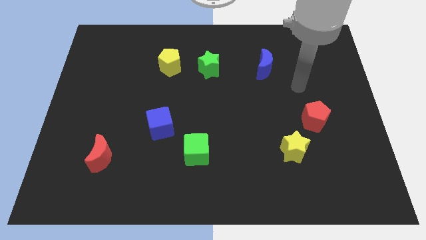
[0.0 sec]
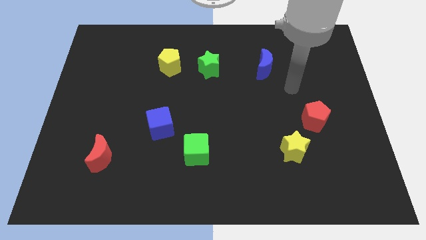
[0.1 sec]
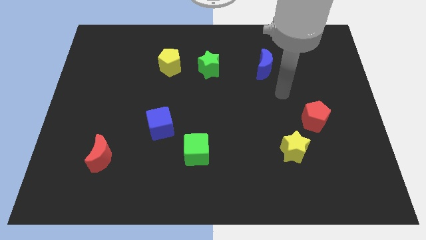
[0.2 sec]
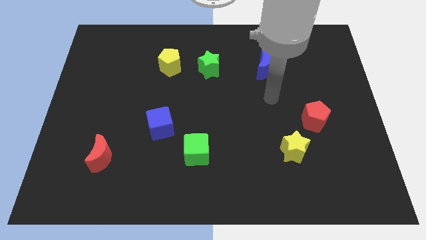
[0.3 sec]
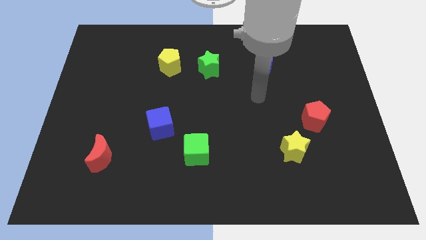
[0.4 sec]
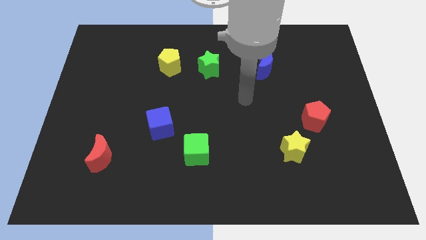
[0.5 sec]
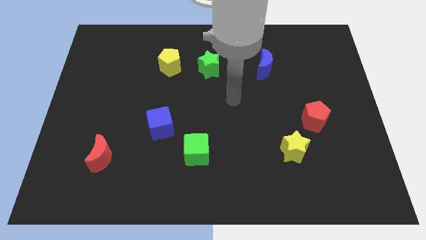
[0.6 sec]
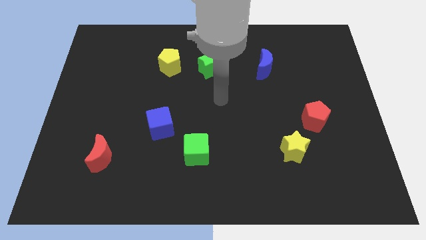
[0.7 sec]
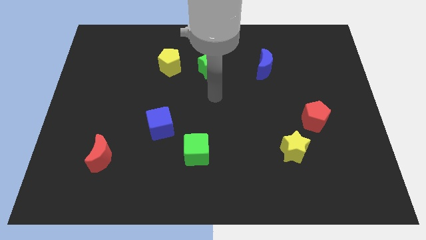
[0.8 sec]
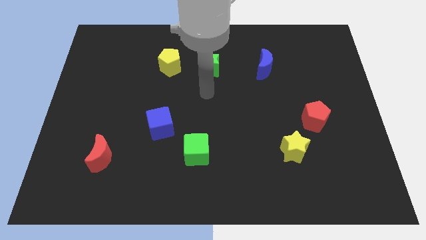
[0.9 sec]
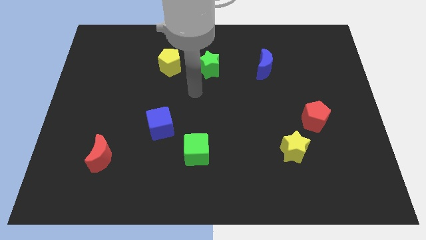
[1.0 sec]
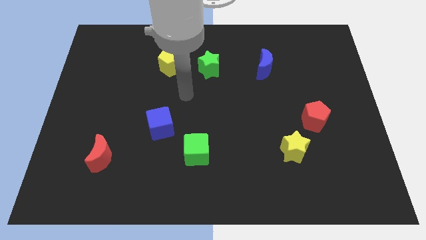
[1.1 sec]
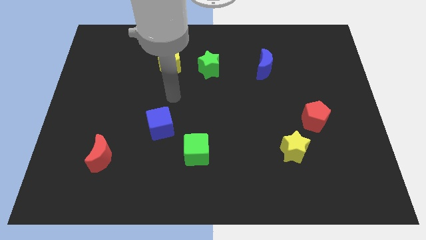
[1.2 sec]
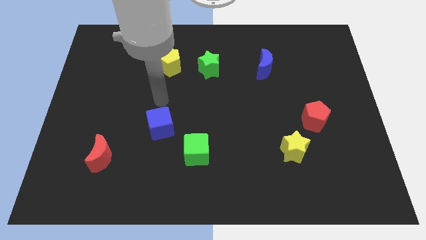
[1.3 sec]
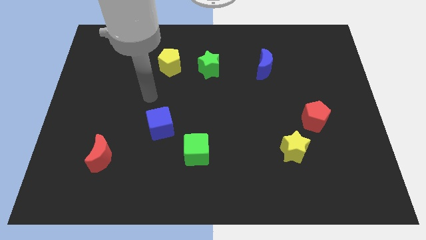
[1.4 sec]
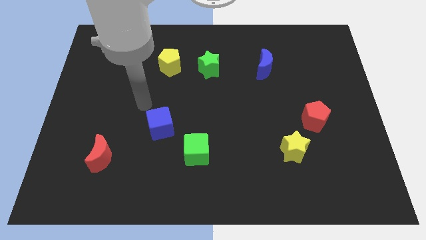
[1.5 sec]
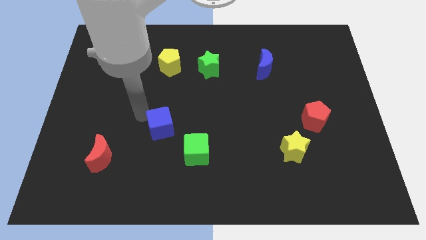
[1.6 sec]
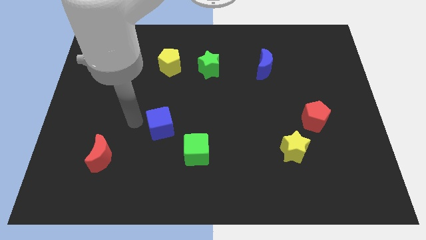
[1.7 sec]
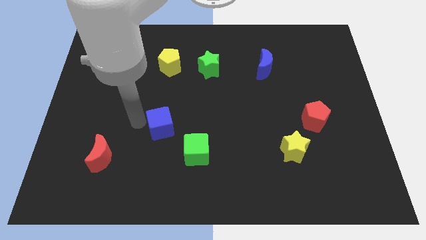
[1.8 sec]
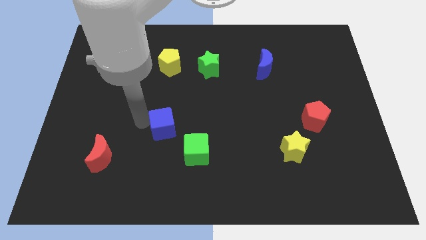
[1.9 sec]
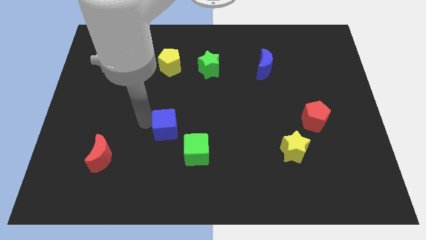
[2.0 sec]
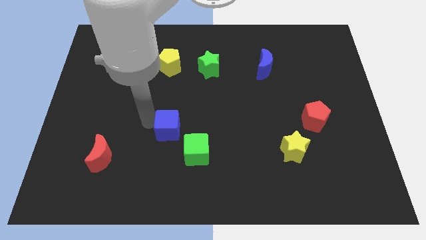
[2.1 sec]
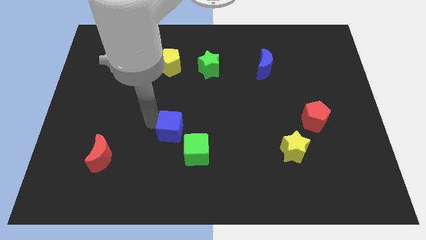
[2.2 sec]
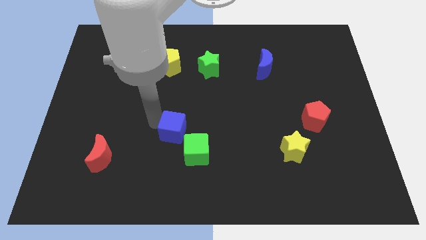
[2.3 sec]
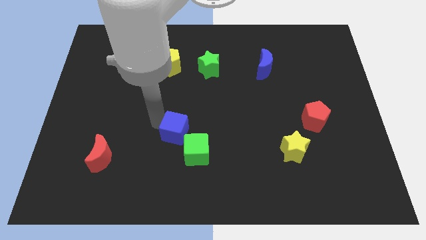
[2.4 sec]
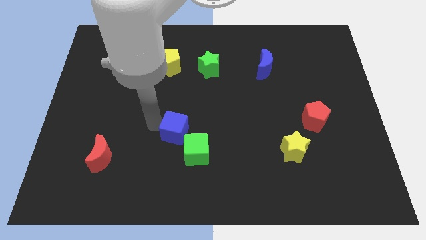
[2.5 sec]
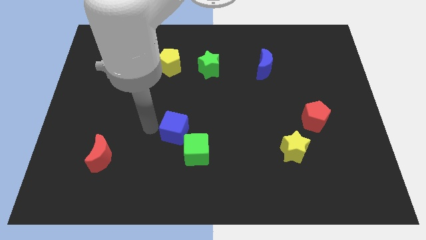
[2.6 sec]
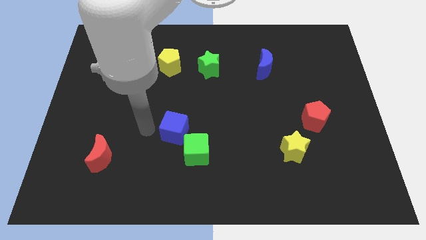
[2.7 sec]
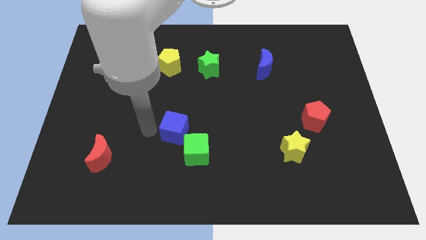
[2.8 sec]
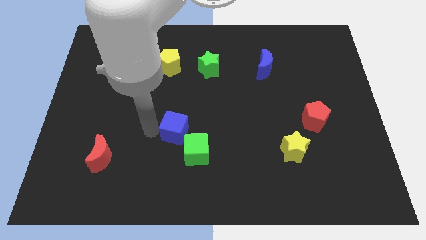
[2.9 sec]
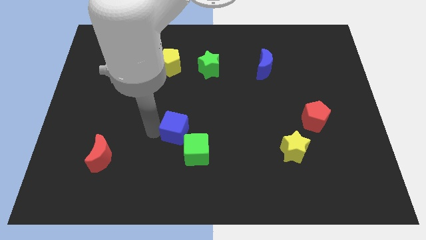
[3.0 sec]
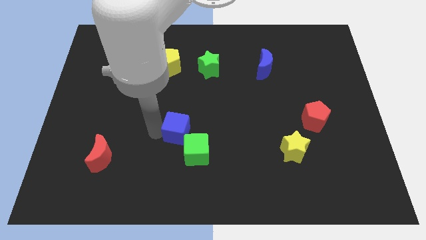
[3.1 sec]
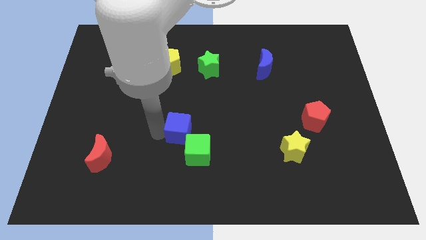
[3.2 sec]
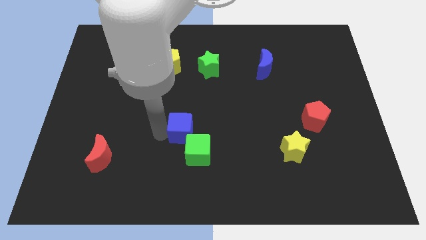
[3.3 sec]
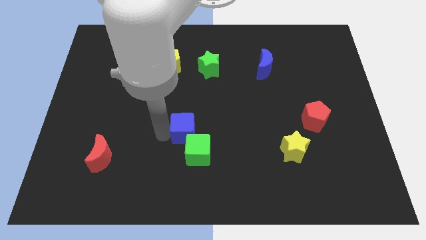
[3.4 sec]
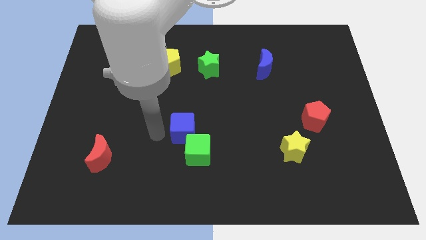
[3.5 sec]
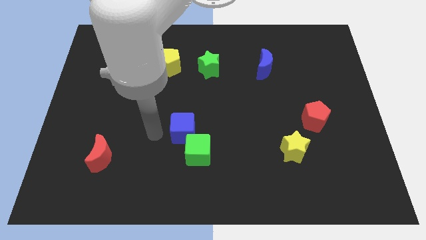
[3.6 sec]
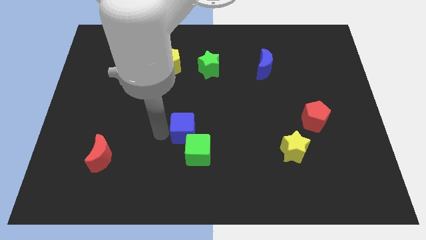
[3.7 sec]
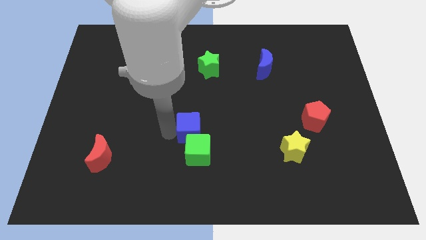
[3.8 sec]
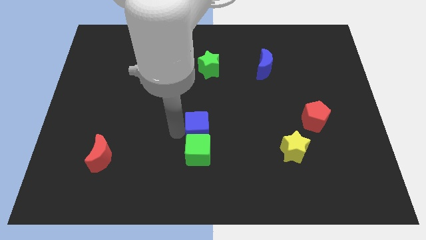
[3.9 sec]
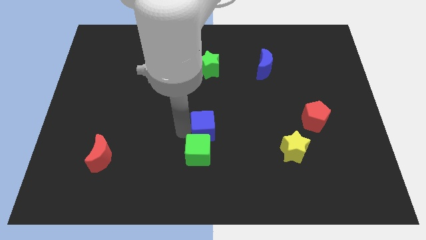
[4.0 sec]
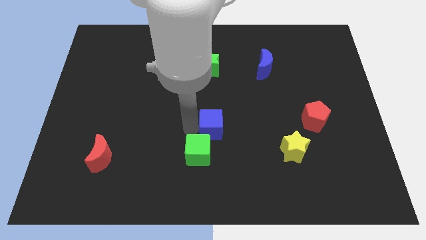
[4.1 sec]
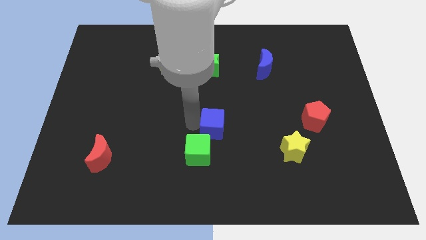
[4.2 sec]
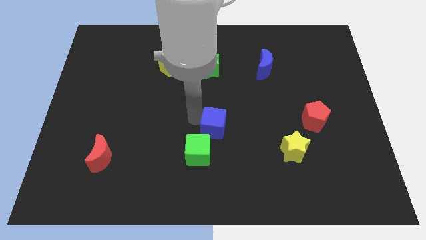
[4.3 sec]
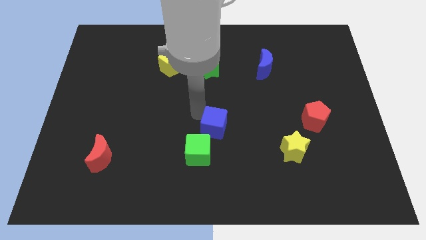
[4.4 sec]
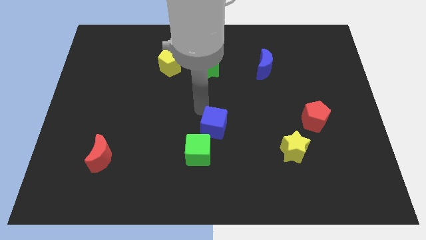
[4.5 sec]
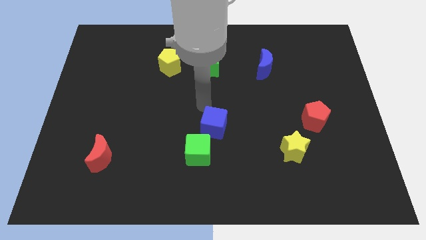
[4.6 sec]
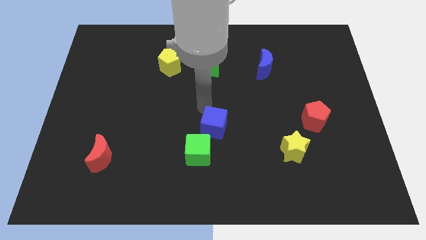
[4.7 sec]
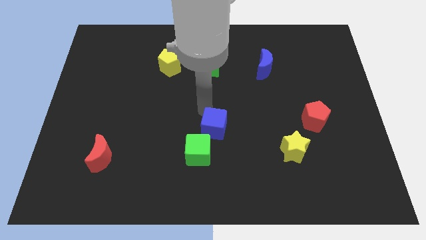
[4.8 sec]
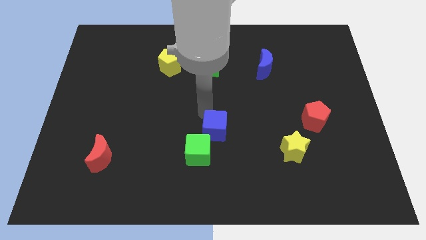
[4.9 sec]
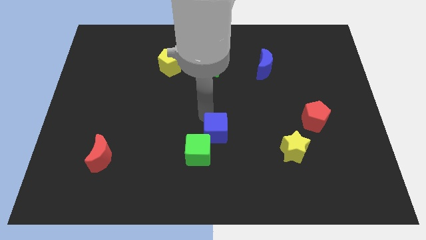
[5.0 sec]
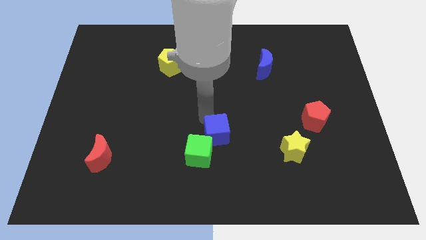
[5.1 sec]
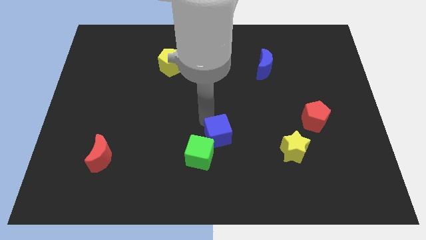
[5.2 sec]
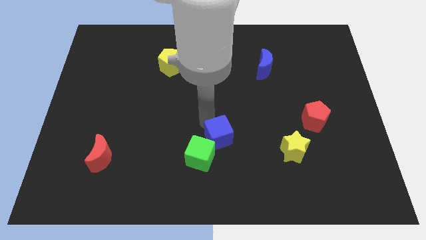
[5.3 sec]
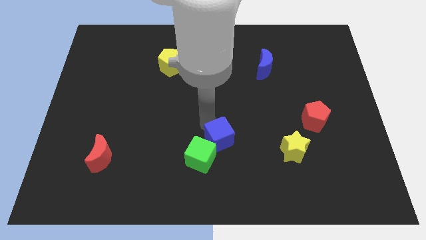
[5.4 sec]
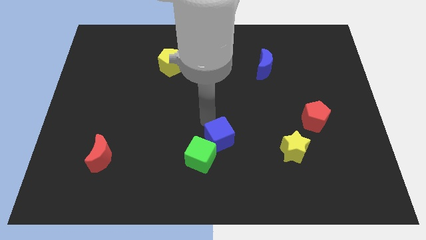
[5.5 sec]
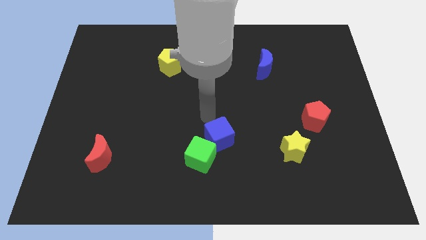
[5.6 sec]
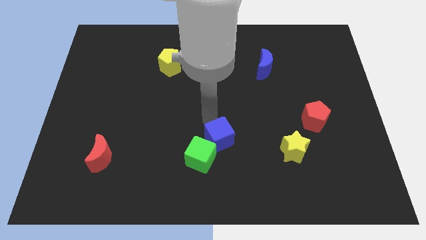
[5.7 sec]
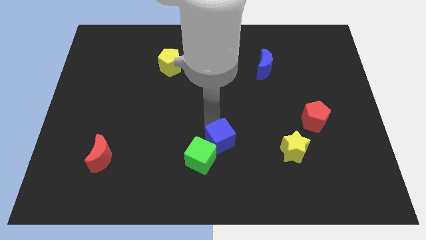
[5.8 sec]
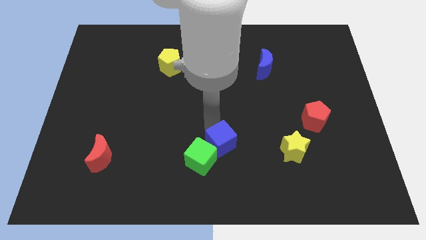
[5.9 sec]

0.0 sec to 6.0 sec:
slide the blue cube left of the yellow star

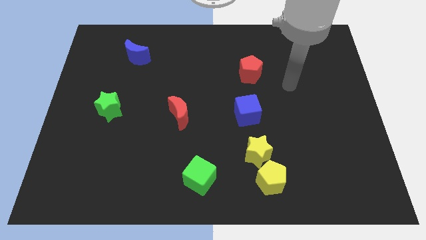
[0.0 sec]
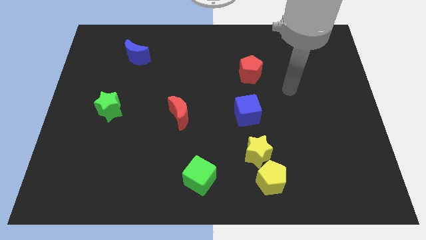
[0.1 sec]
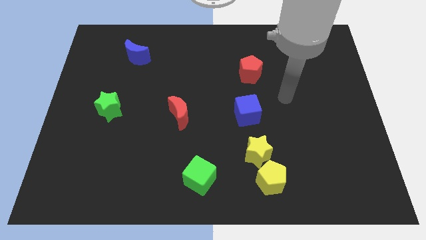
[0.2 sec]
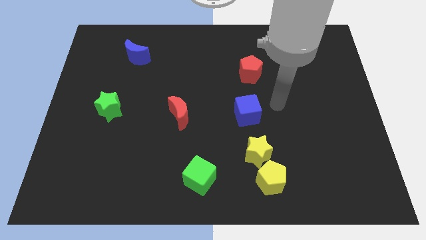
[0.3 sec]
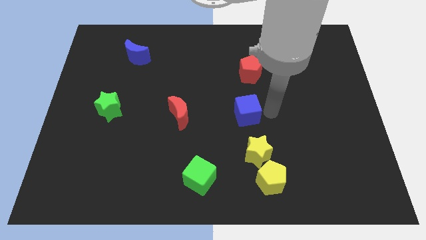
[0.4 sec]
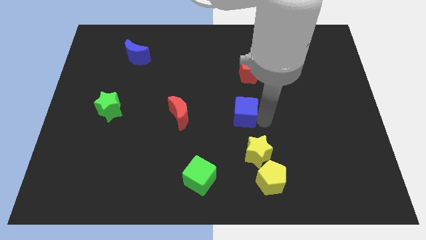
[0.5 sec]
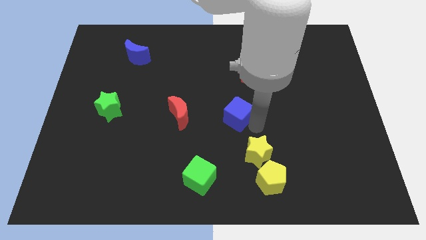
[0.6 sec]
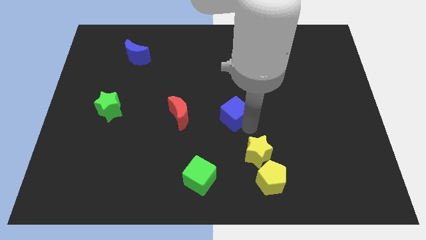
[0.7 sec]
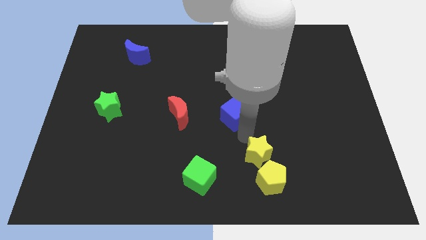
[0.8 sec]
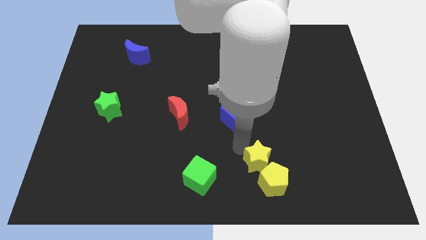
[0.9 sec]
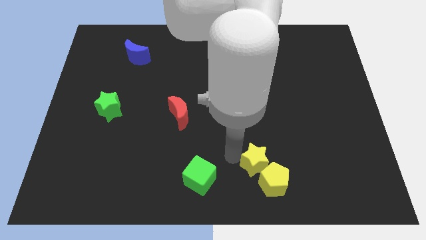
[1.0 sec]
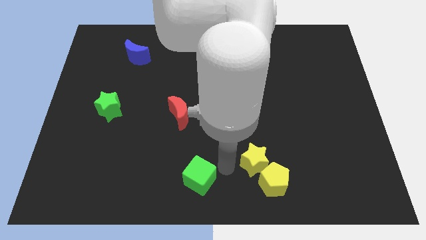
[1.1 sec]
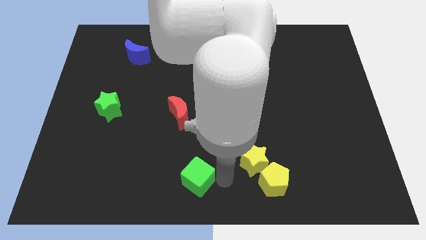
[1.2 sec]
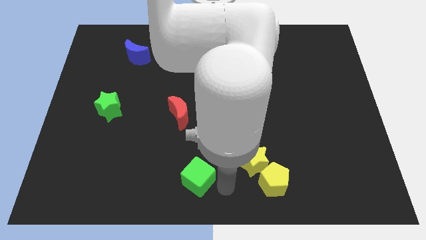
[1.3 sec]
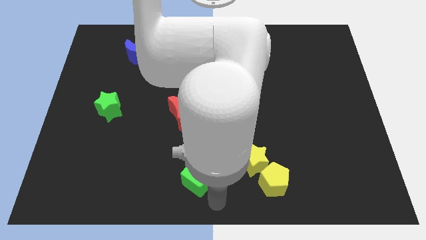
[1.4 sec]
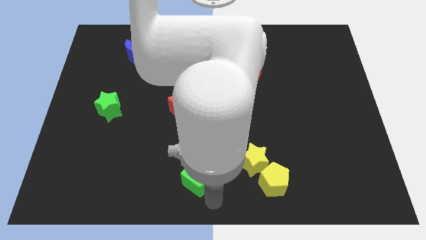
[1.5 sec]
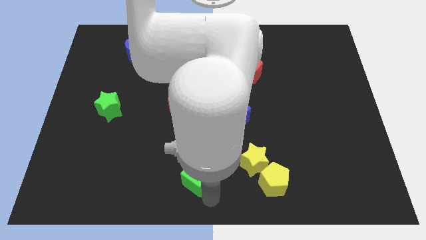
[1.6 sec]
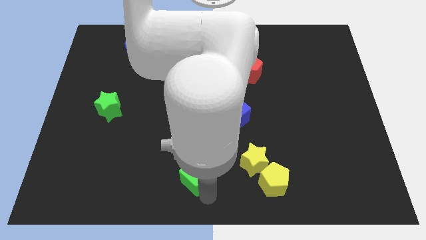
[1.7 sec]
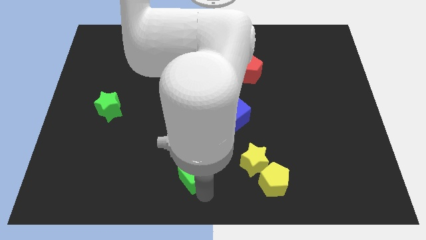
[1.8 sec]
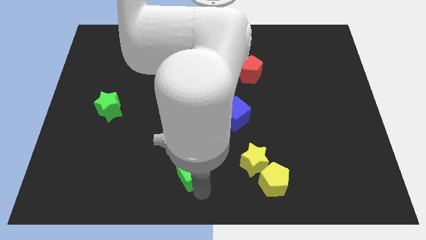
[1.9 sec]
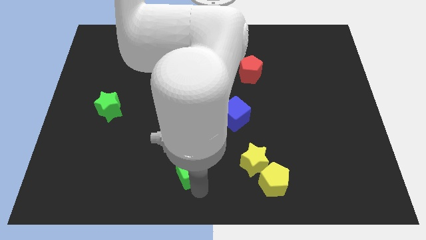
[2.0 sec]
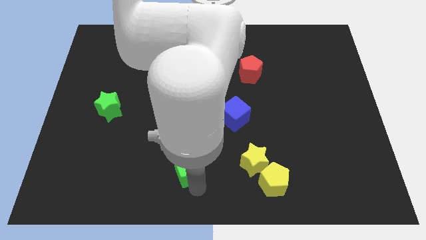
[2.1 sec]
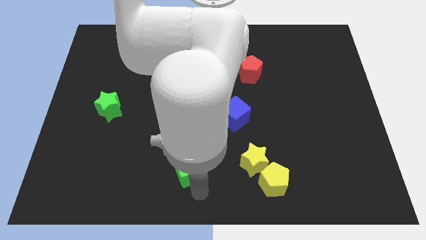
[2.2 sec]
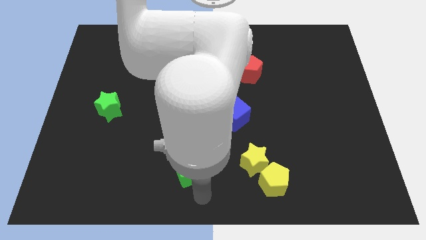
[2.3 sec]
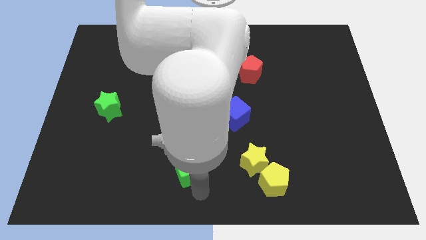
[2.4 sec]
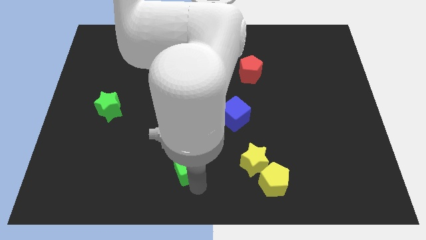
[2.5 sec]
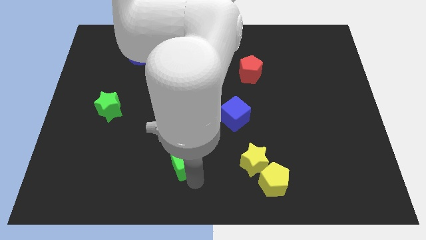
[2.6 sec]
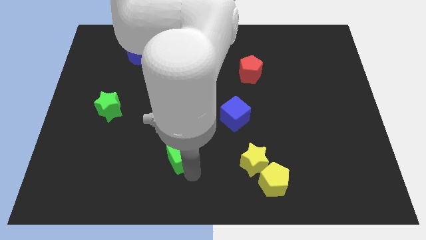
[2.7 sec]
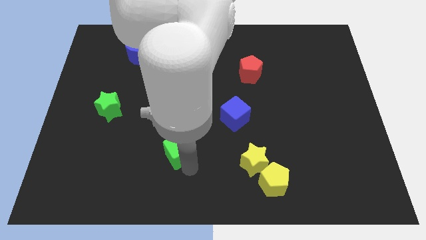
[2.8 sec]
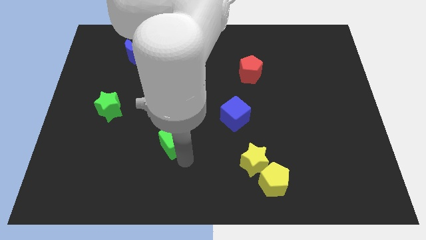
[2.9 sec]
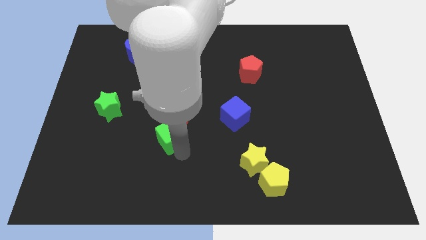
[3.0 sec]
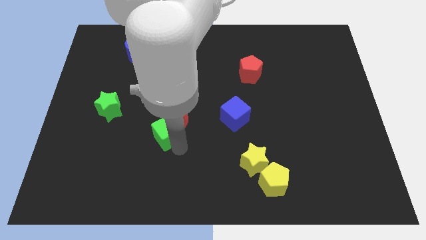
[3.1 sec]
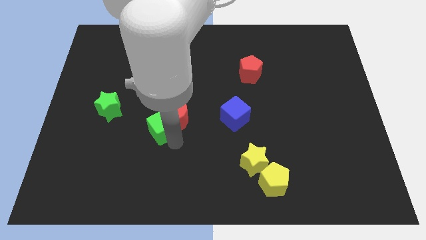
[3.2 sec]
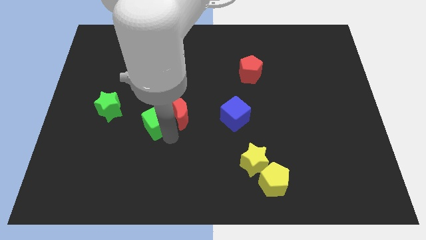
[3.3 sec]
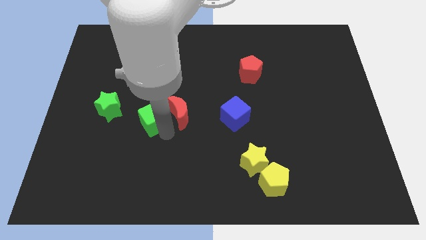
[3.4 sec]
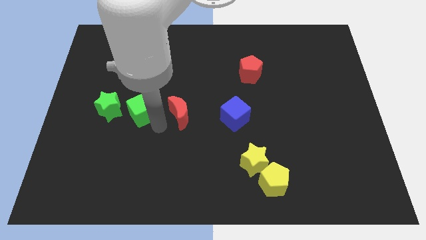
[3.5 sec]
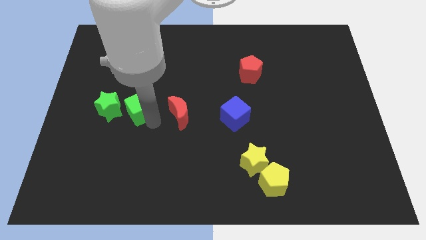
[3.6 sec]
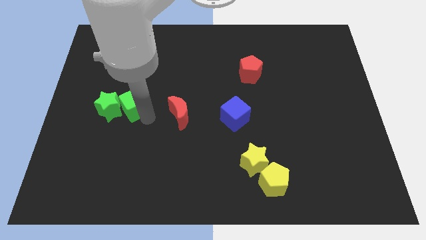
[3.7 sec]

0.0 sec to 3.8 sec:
slide the green cube to the top right of the green star
